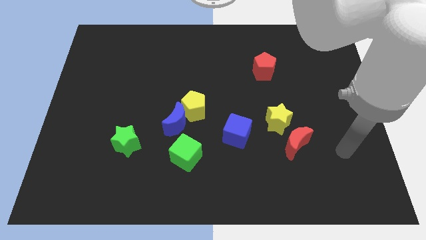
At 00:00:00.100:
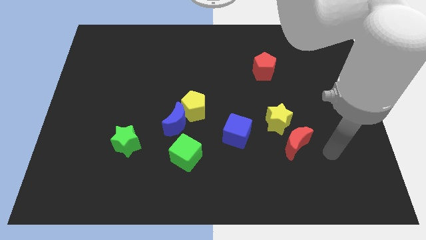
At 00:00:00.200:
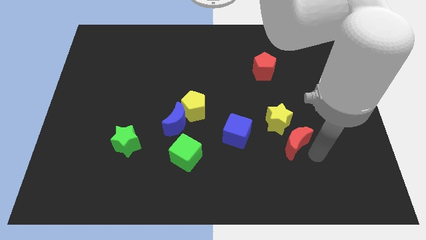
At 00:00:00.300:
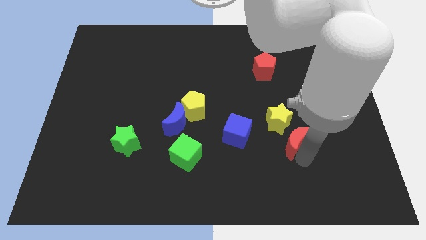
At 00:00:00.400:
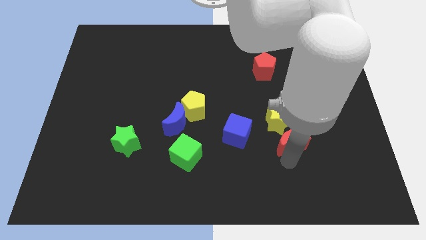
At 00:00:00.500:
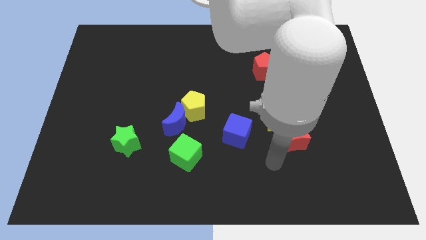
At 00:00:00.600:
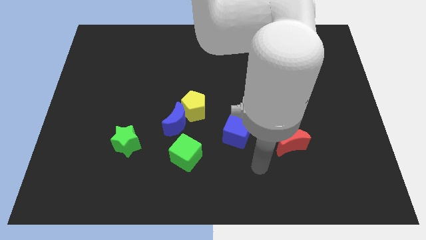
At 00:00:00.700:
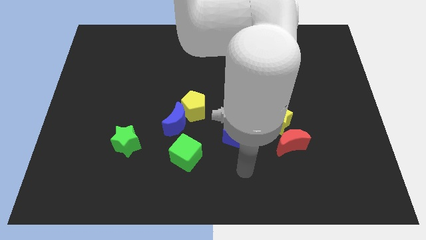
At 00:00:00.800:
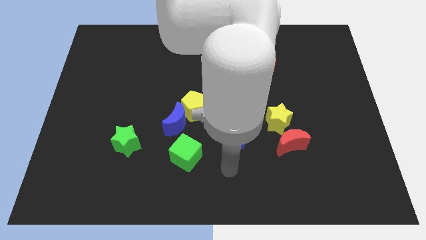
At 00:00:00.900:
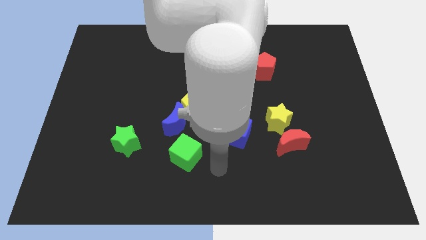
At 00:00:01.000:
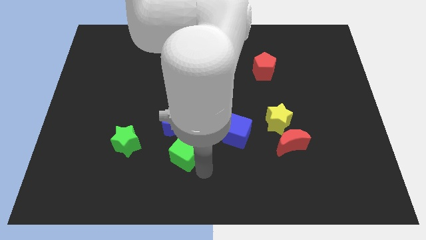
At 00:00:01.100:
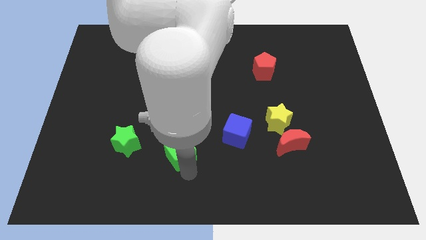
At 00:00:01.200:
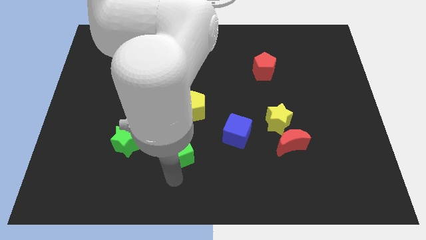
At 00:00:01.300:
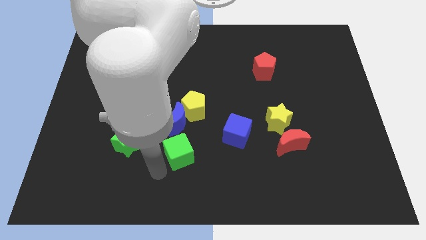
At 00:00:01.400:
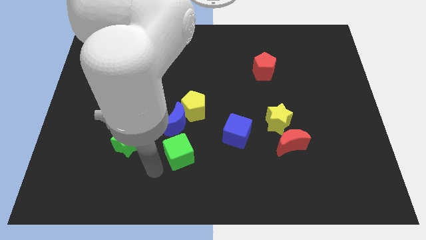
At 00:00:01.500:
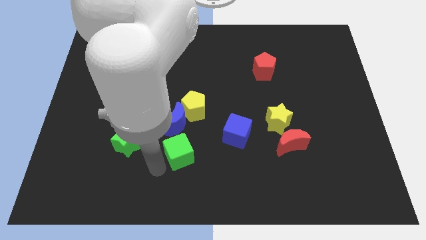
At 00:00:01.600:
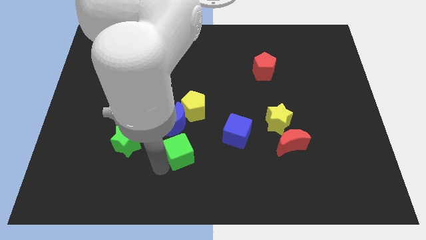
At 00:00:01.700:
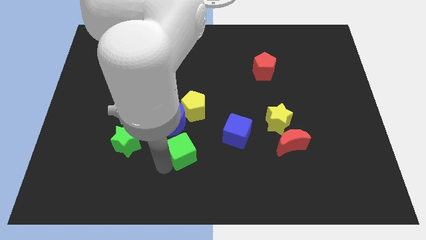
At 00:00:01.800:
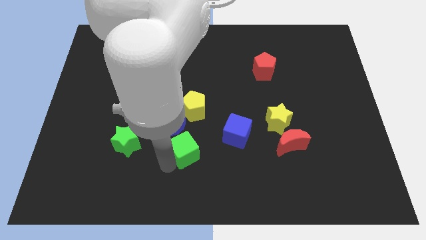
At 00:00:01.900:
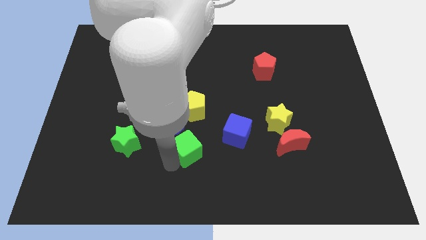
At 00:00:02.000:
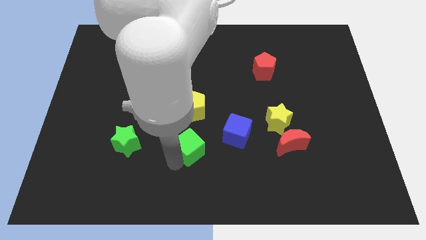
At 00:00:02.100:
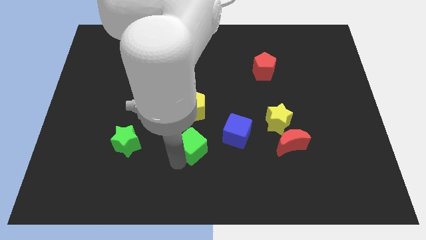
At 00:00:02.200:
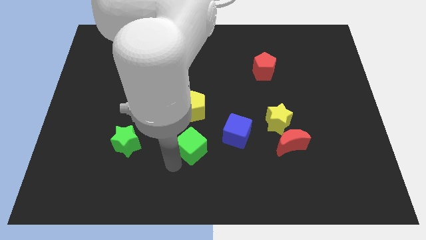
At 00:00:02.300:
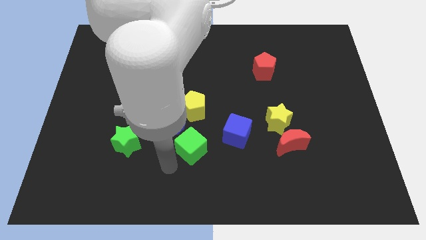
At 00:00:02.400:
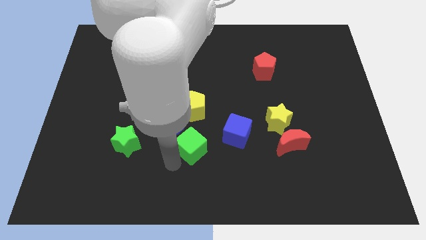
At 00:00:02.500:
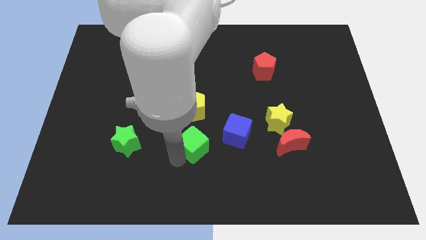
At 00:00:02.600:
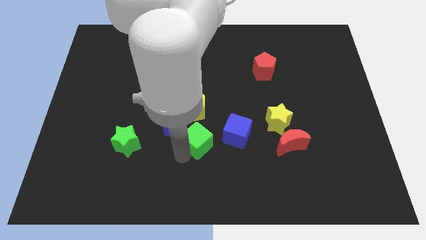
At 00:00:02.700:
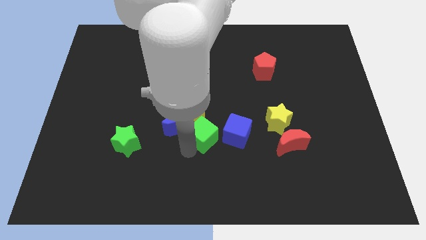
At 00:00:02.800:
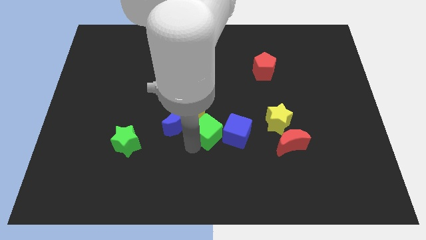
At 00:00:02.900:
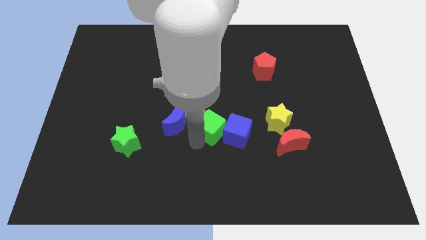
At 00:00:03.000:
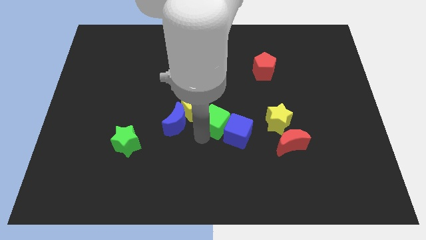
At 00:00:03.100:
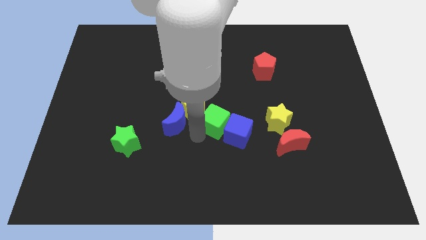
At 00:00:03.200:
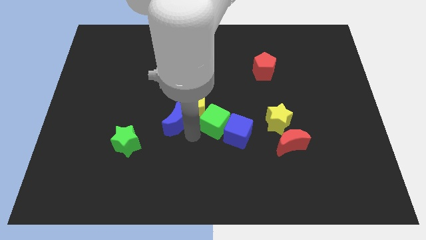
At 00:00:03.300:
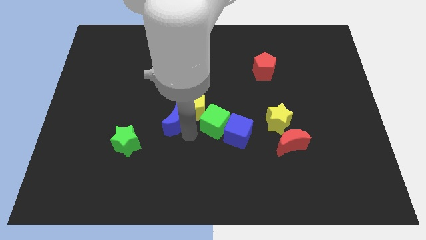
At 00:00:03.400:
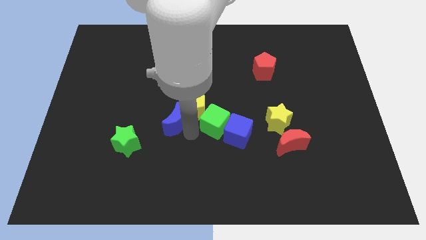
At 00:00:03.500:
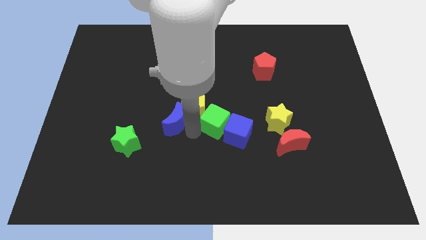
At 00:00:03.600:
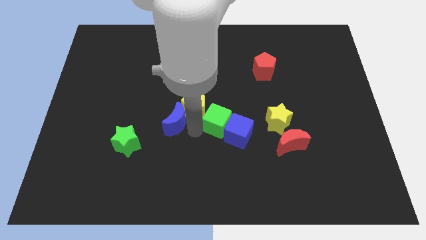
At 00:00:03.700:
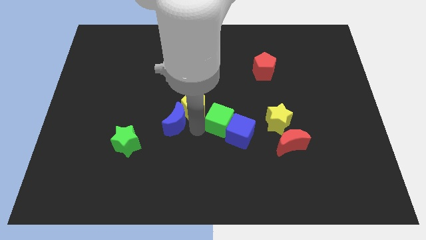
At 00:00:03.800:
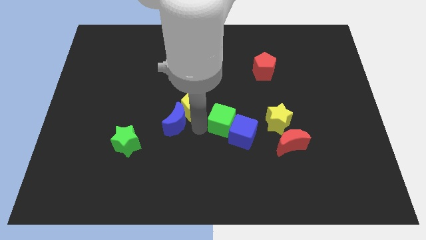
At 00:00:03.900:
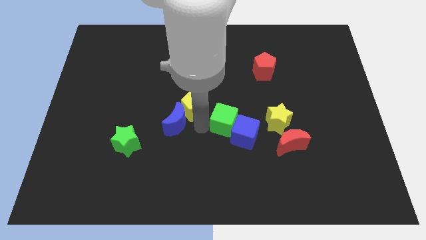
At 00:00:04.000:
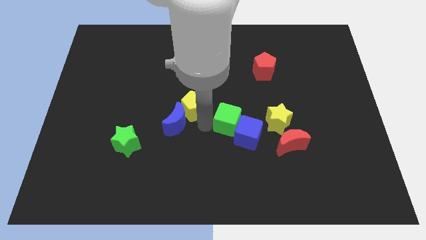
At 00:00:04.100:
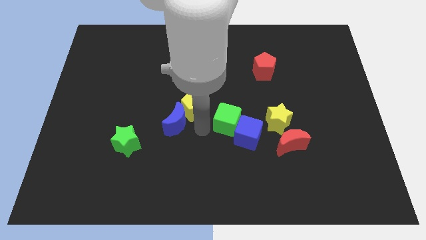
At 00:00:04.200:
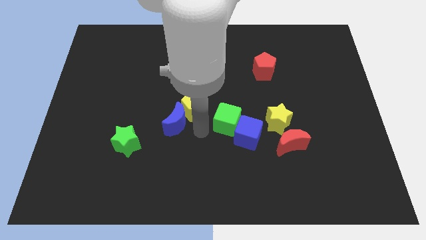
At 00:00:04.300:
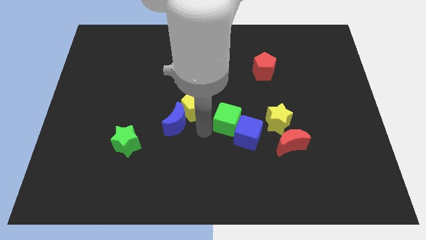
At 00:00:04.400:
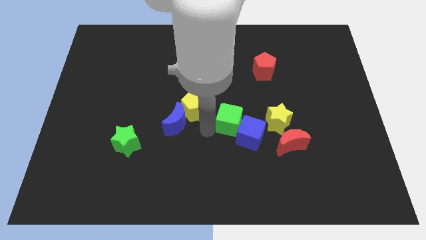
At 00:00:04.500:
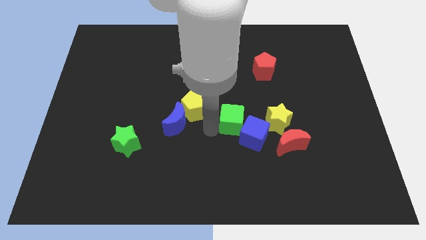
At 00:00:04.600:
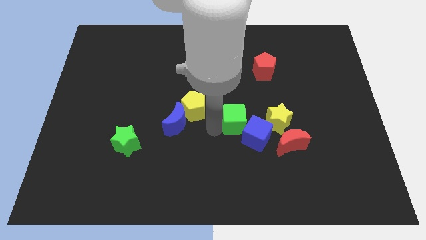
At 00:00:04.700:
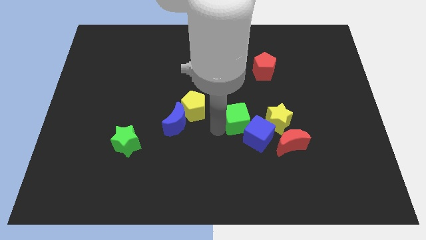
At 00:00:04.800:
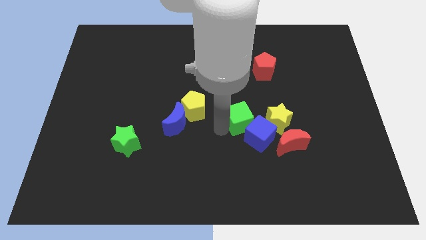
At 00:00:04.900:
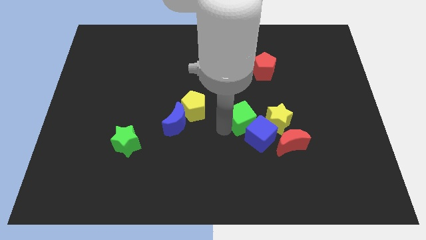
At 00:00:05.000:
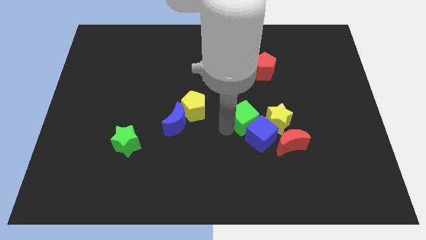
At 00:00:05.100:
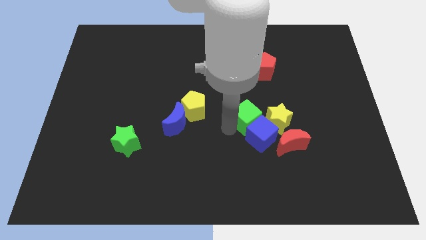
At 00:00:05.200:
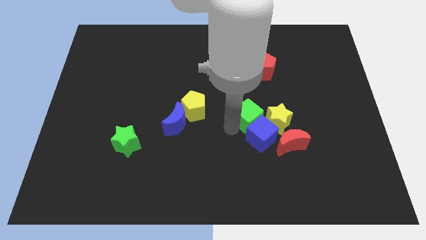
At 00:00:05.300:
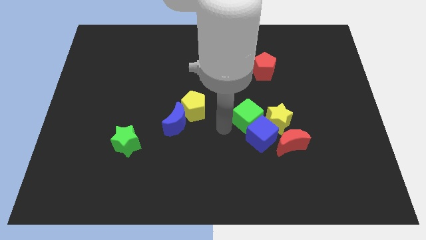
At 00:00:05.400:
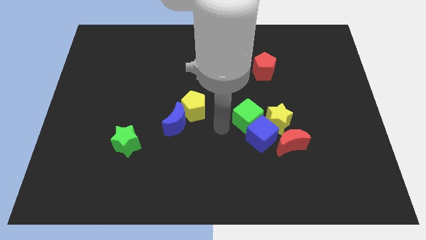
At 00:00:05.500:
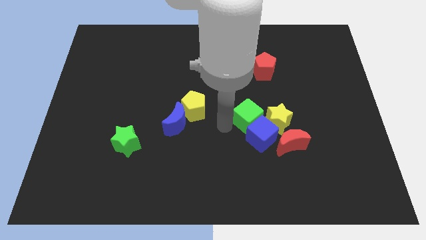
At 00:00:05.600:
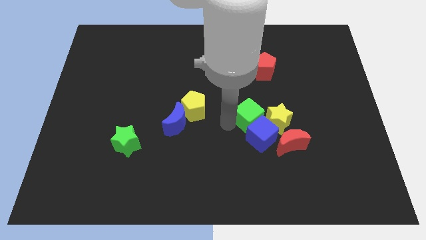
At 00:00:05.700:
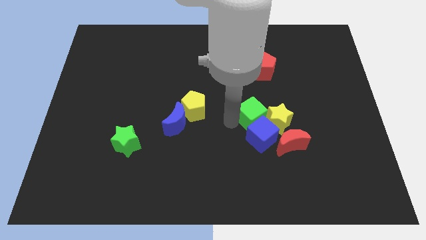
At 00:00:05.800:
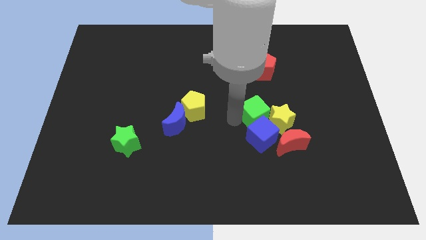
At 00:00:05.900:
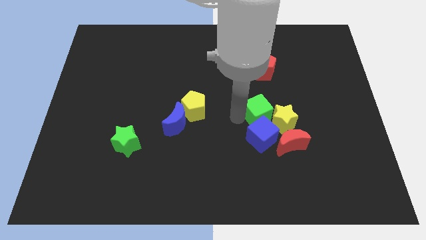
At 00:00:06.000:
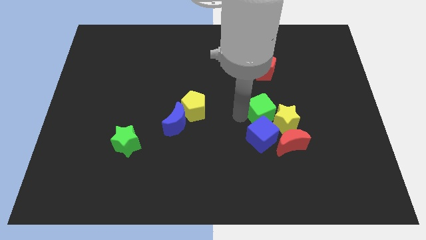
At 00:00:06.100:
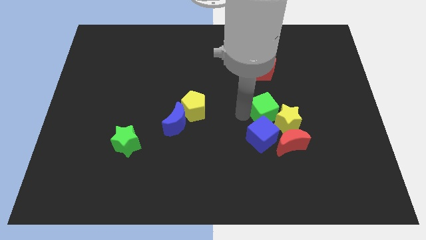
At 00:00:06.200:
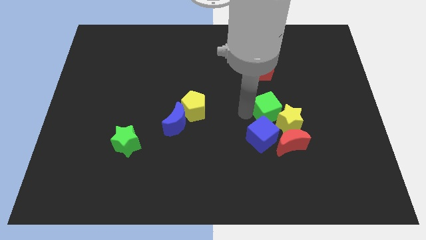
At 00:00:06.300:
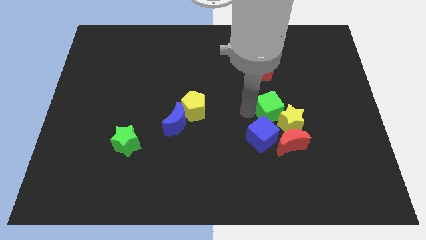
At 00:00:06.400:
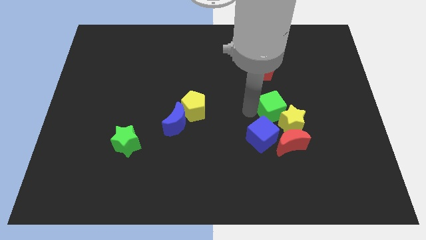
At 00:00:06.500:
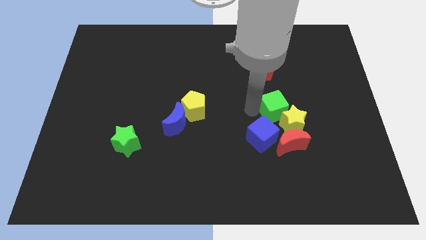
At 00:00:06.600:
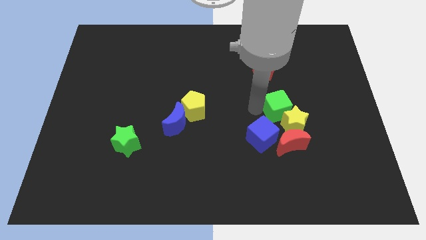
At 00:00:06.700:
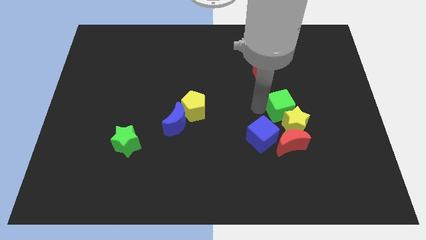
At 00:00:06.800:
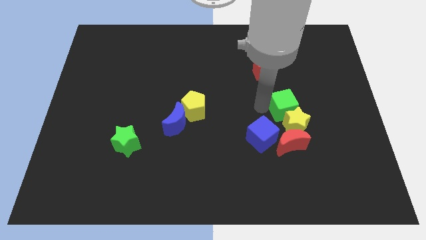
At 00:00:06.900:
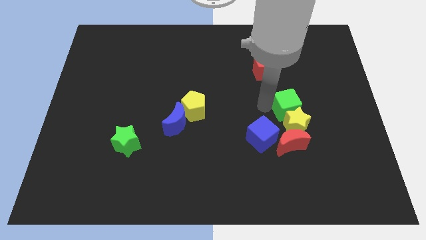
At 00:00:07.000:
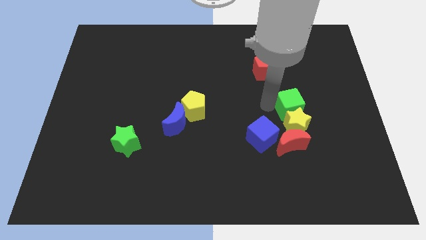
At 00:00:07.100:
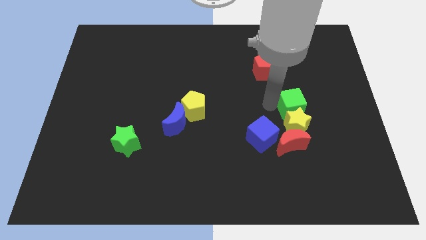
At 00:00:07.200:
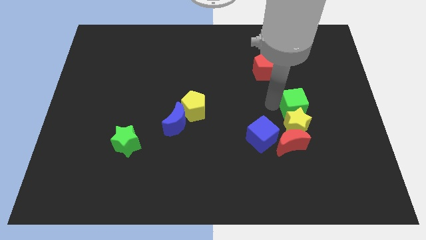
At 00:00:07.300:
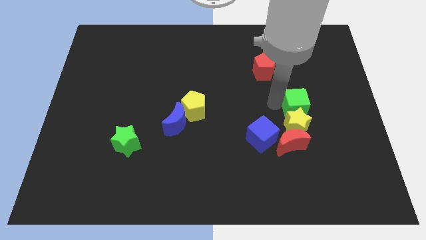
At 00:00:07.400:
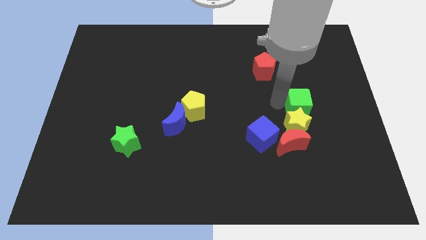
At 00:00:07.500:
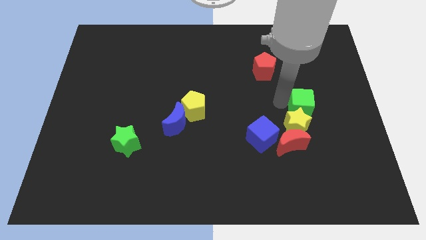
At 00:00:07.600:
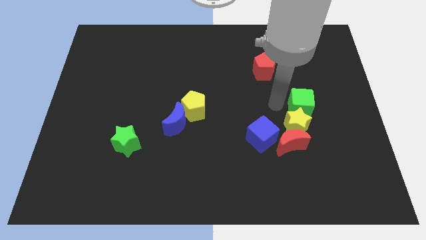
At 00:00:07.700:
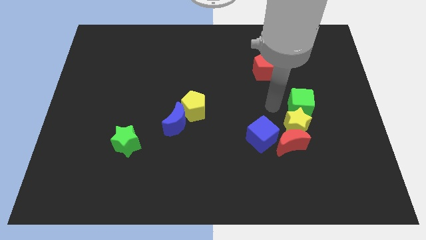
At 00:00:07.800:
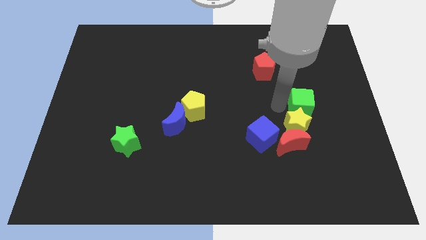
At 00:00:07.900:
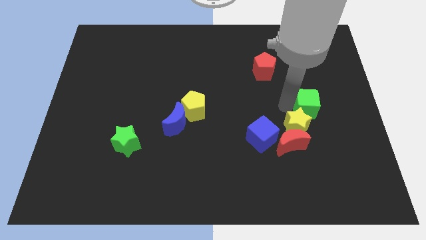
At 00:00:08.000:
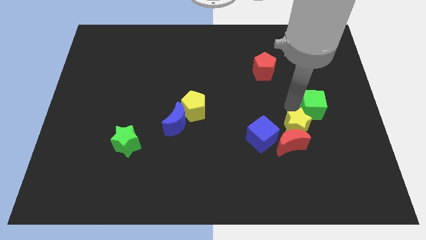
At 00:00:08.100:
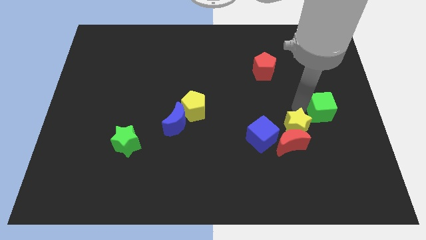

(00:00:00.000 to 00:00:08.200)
slide the green cube to the right side of the board
